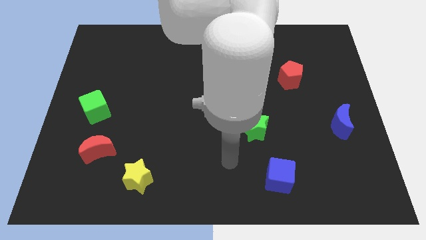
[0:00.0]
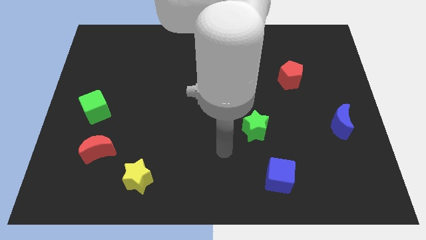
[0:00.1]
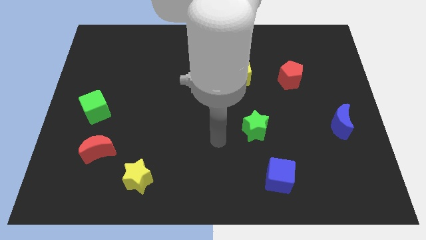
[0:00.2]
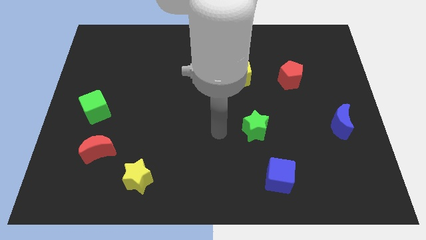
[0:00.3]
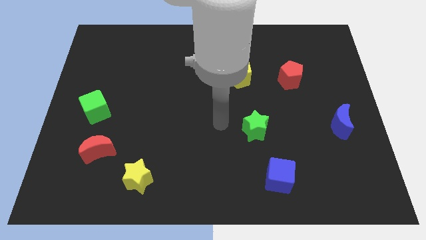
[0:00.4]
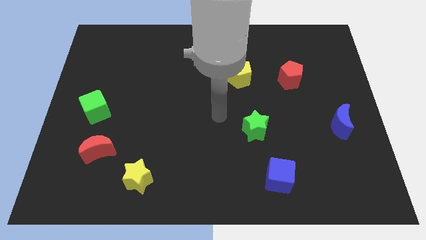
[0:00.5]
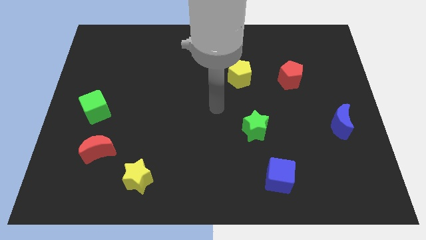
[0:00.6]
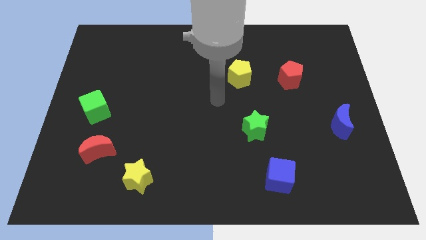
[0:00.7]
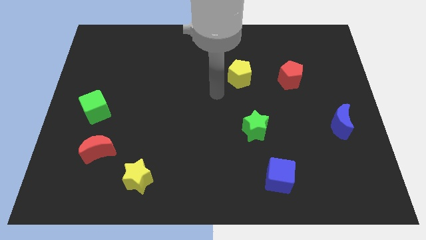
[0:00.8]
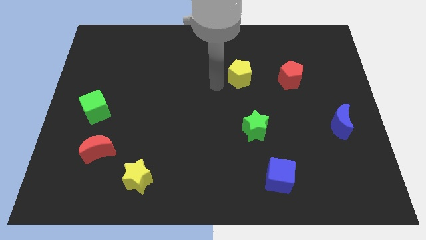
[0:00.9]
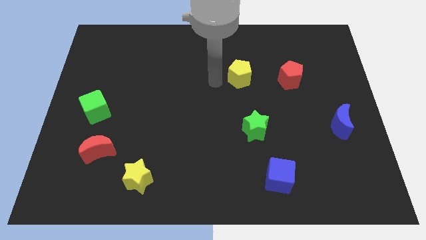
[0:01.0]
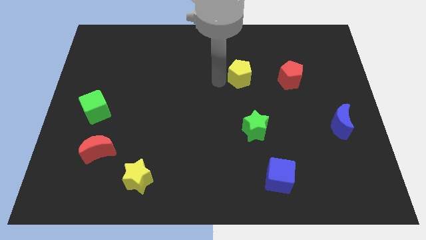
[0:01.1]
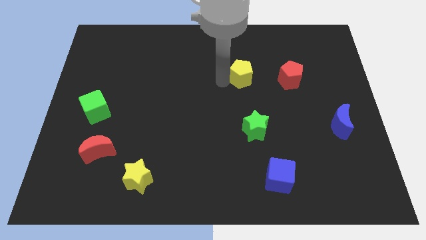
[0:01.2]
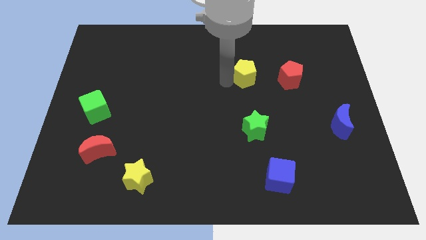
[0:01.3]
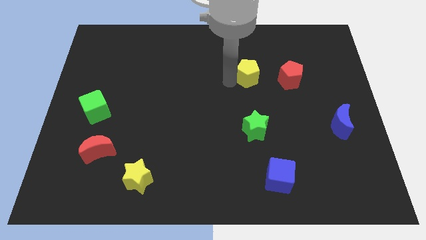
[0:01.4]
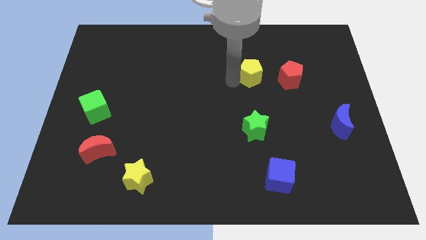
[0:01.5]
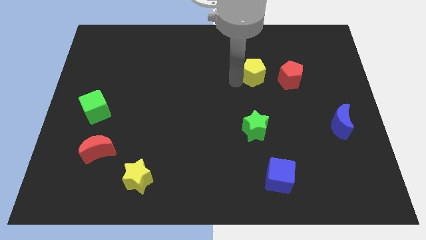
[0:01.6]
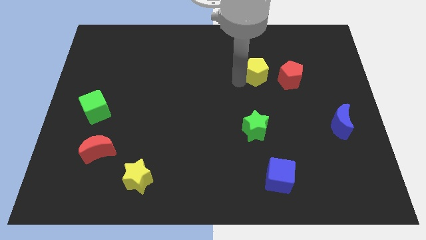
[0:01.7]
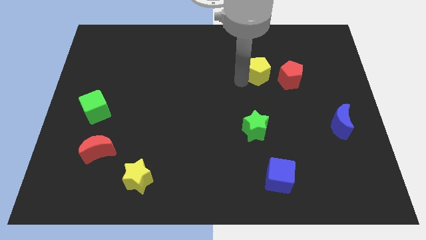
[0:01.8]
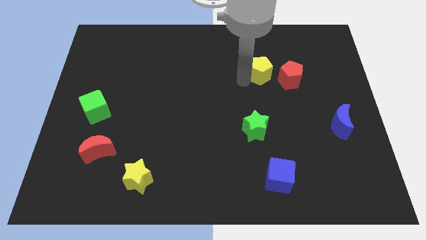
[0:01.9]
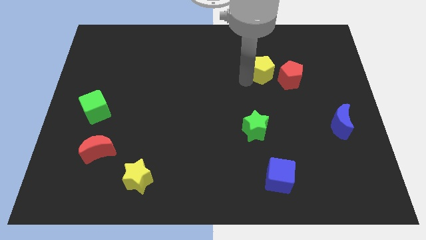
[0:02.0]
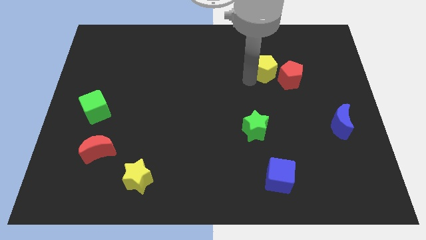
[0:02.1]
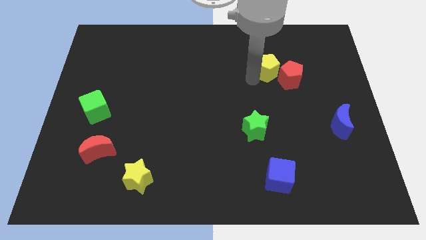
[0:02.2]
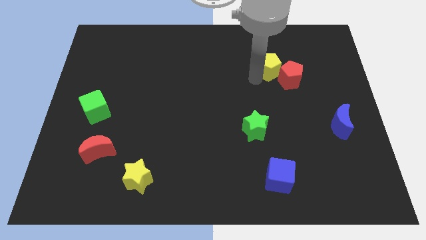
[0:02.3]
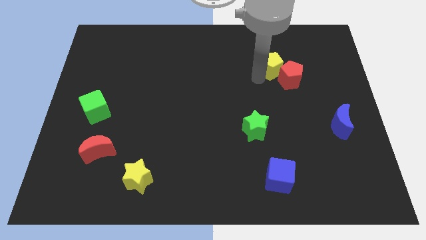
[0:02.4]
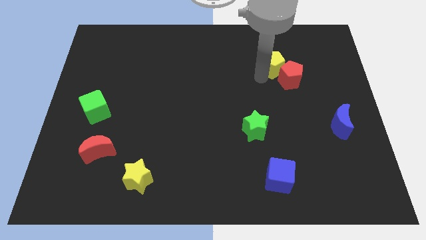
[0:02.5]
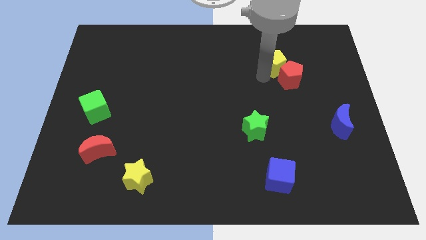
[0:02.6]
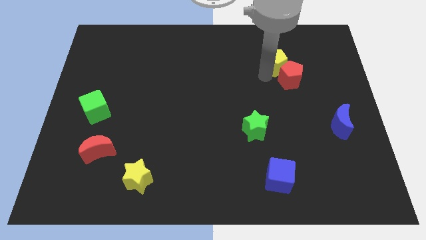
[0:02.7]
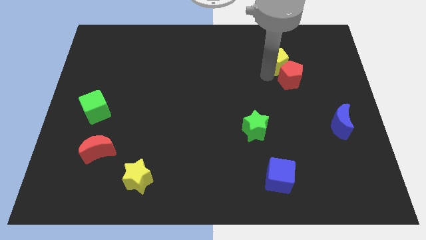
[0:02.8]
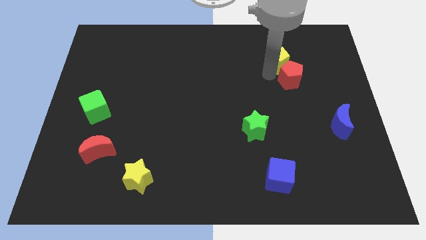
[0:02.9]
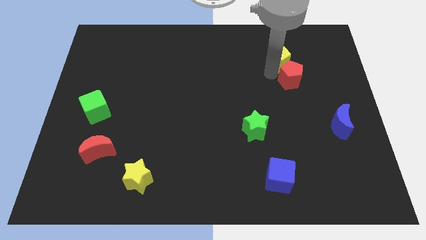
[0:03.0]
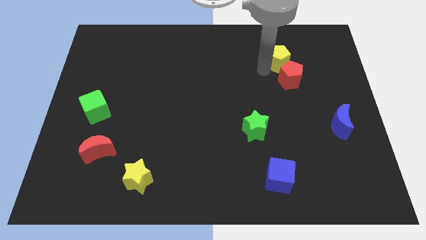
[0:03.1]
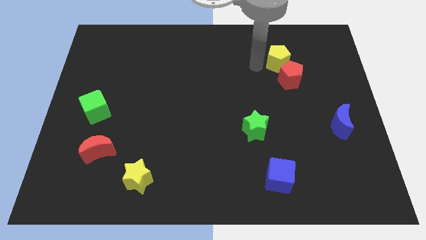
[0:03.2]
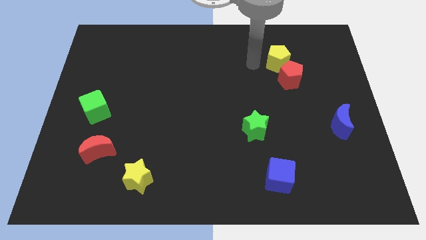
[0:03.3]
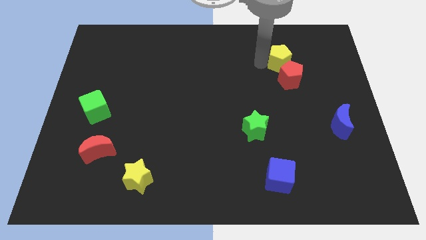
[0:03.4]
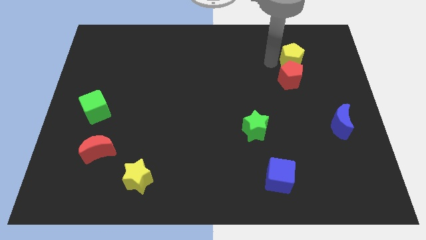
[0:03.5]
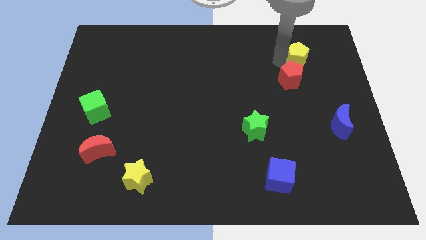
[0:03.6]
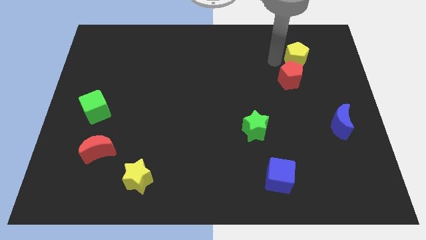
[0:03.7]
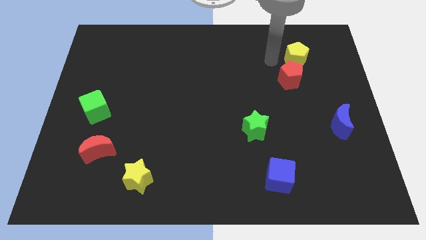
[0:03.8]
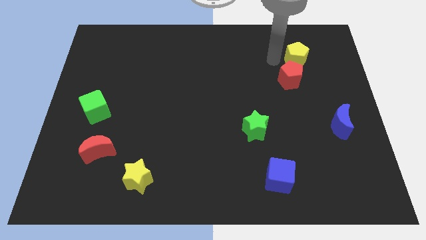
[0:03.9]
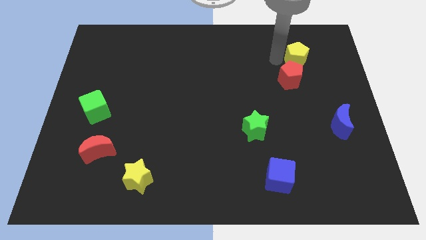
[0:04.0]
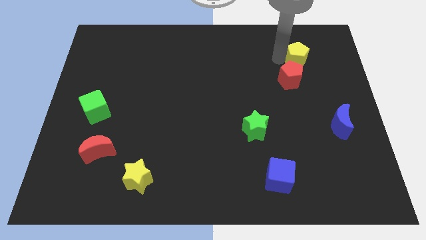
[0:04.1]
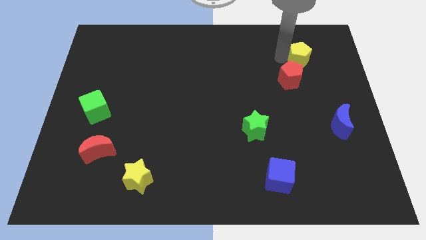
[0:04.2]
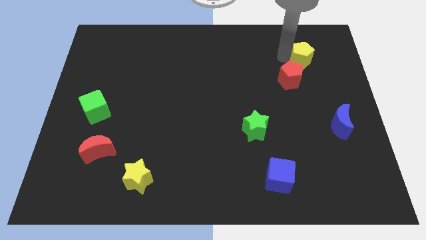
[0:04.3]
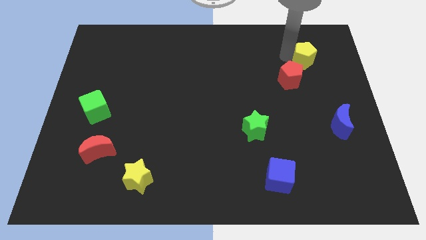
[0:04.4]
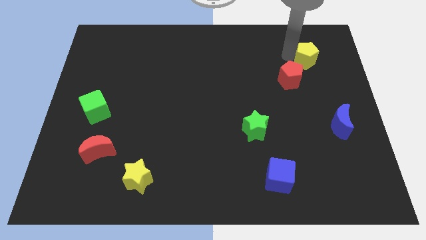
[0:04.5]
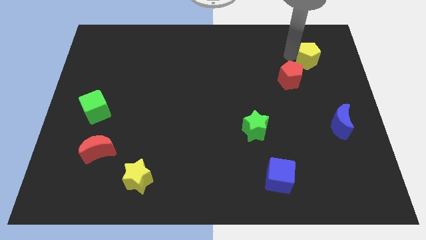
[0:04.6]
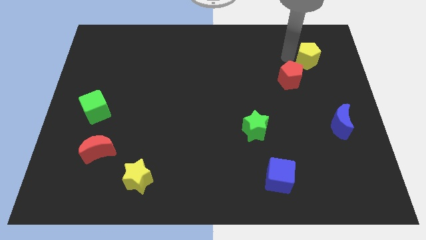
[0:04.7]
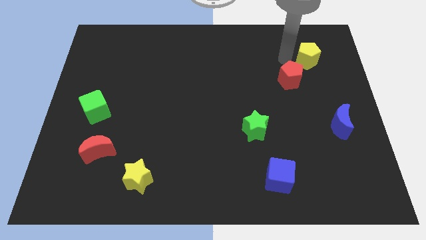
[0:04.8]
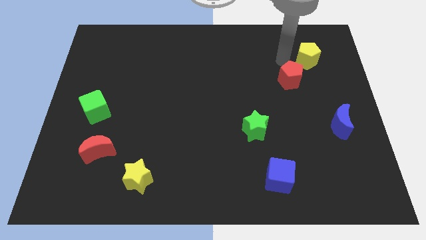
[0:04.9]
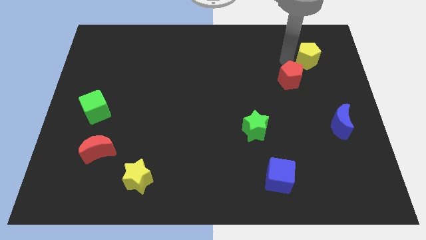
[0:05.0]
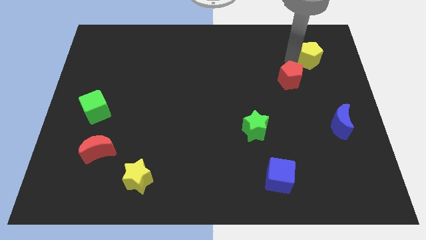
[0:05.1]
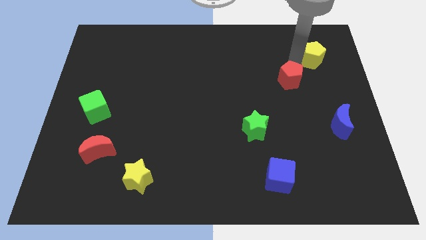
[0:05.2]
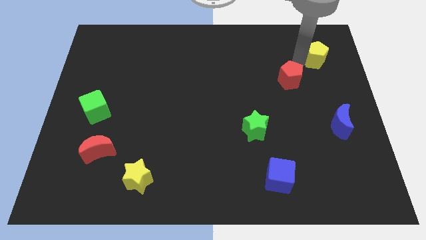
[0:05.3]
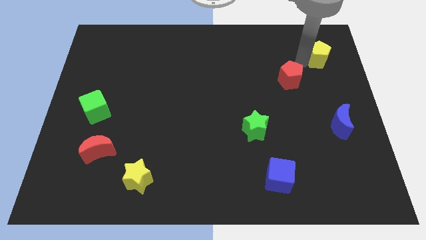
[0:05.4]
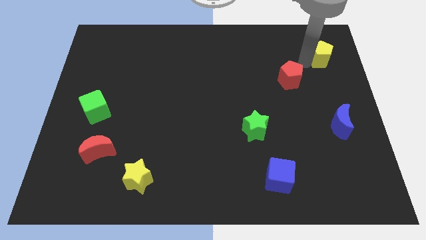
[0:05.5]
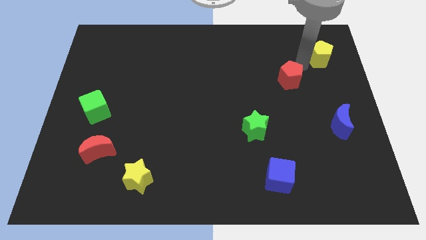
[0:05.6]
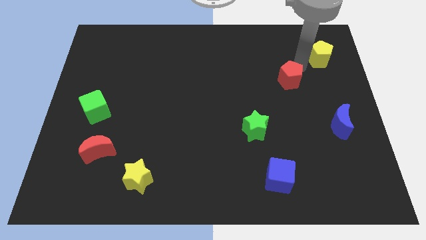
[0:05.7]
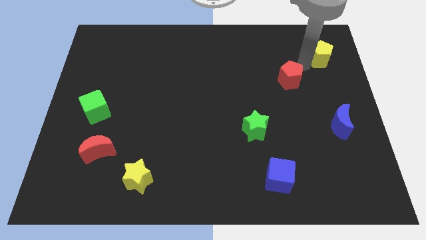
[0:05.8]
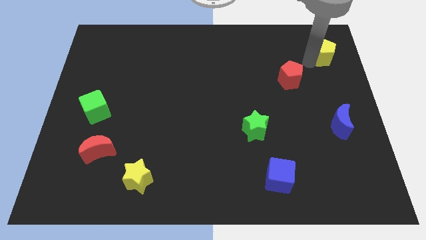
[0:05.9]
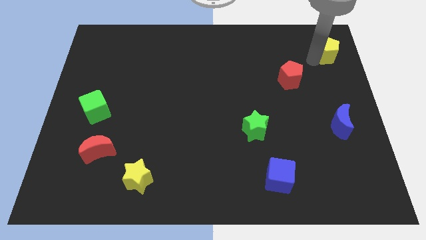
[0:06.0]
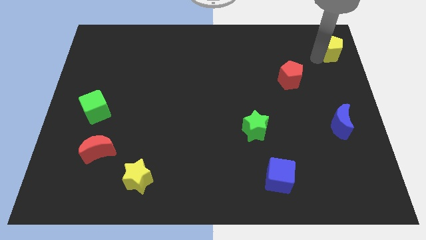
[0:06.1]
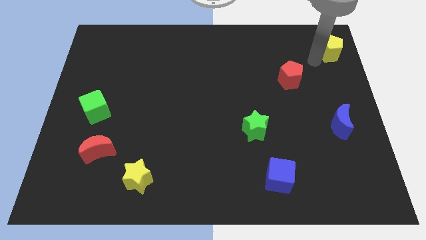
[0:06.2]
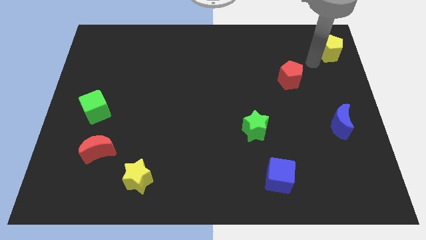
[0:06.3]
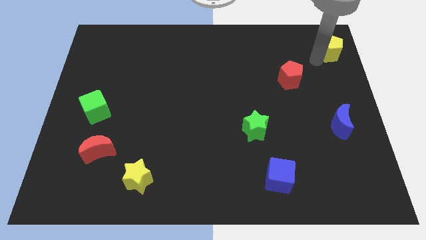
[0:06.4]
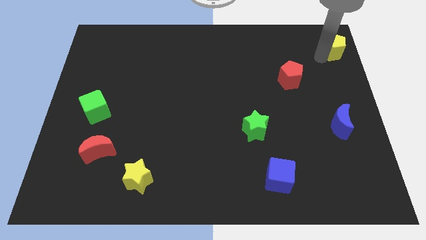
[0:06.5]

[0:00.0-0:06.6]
push the yellow pentagon to the top right of the board
